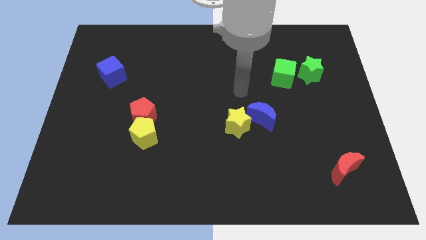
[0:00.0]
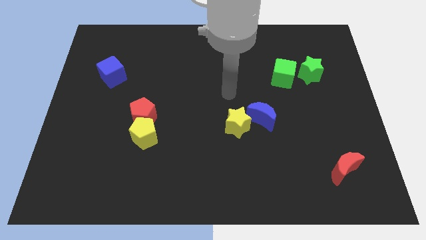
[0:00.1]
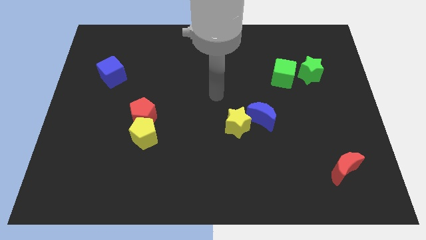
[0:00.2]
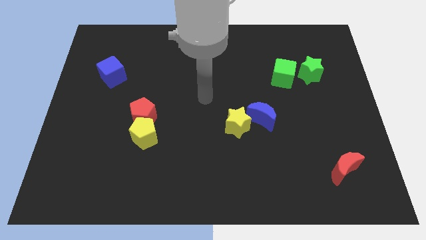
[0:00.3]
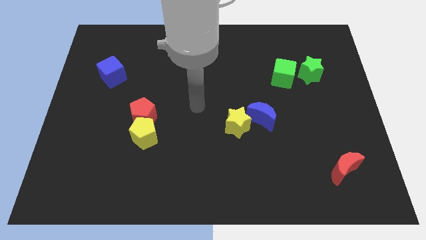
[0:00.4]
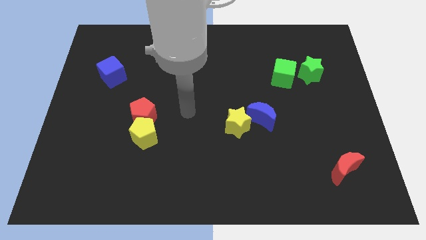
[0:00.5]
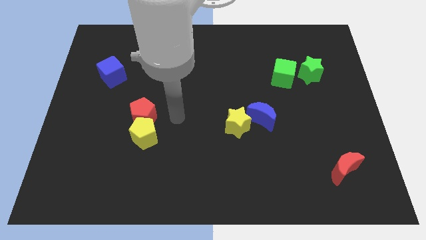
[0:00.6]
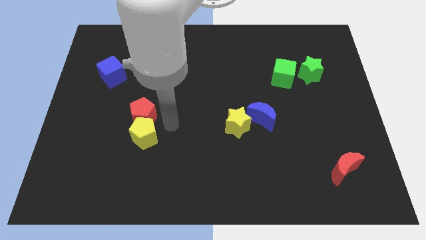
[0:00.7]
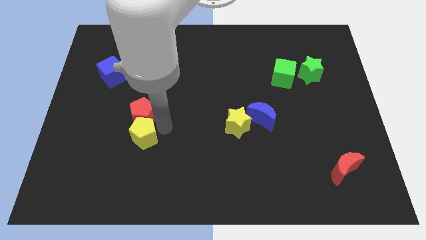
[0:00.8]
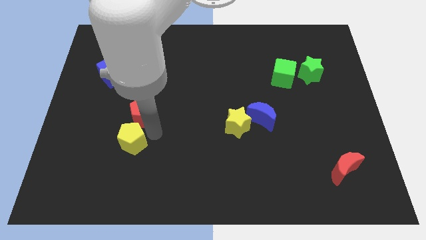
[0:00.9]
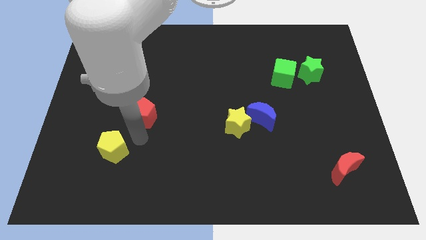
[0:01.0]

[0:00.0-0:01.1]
pull the red pentagon apart from the yellow pentagon

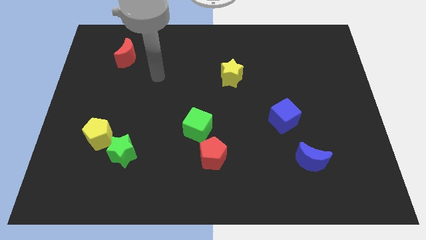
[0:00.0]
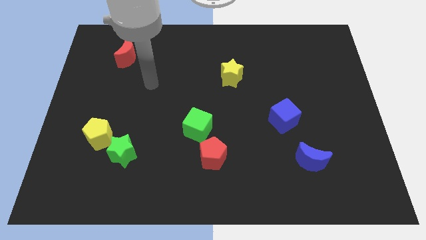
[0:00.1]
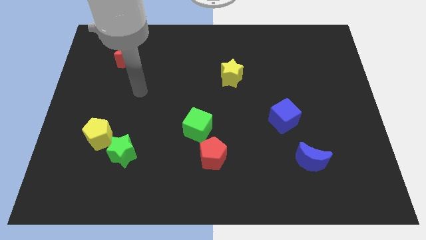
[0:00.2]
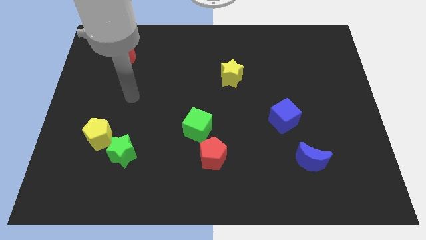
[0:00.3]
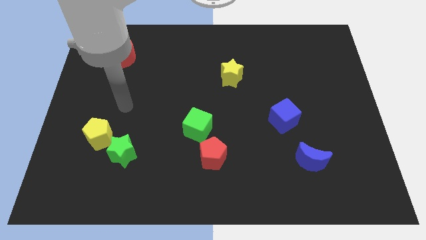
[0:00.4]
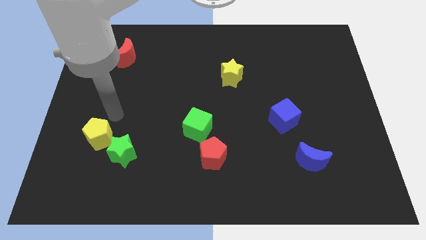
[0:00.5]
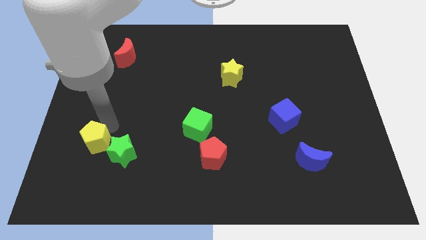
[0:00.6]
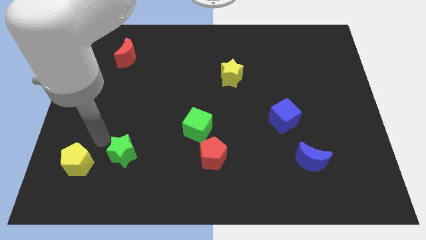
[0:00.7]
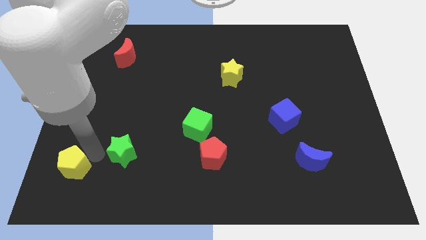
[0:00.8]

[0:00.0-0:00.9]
separate the green star from the yellow pentagon

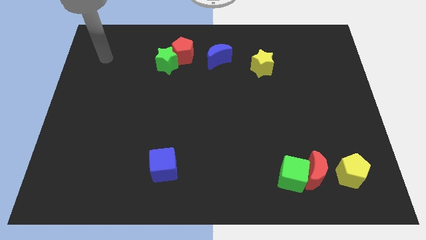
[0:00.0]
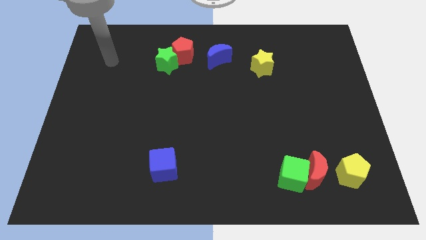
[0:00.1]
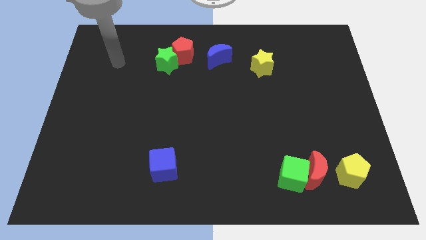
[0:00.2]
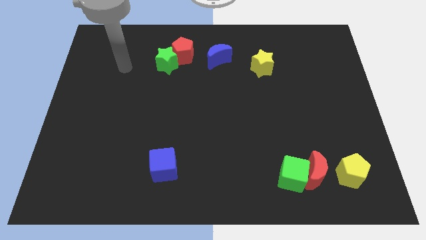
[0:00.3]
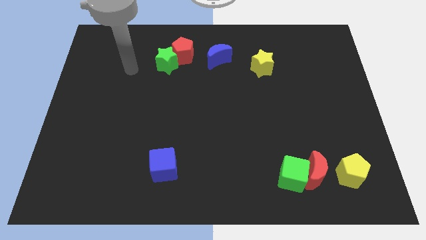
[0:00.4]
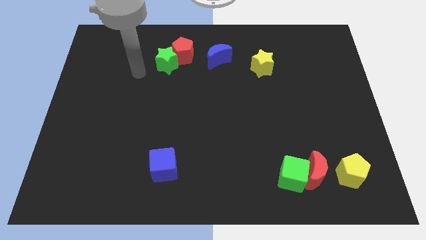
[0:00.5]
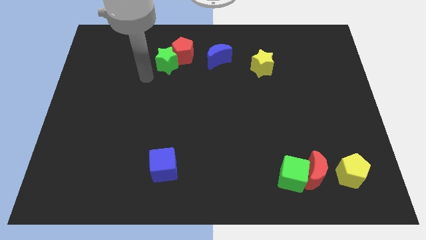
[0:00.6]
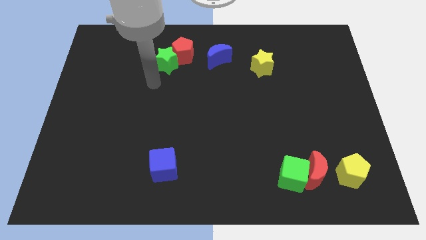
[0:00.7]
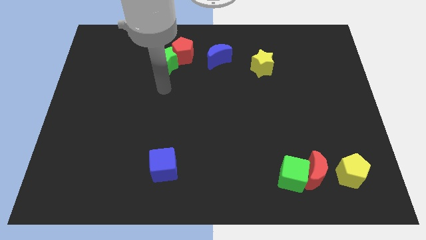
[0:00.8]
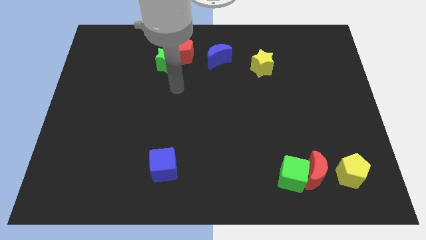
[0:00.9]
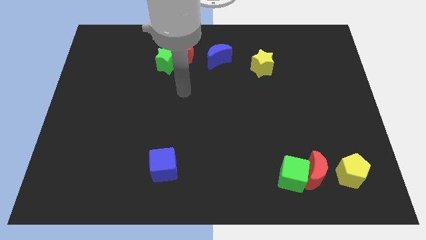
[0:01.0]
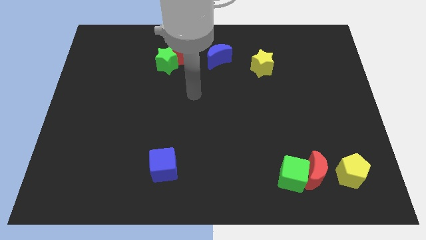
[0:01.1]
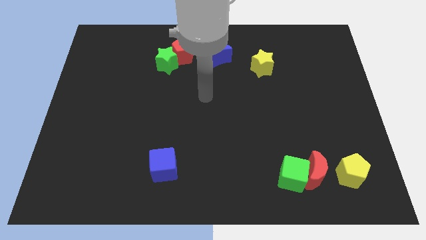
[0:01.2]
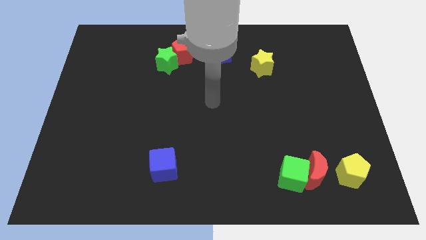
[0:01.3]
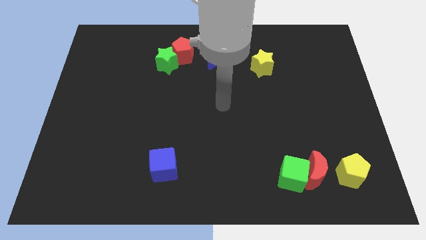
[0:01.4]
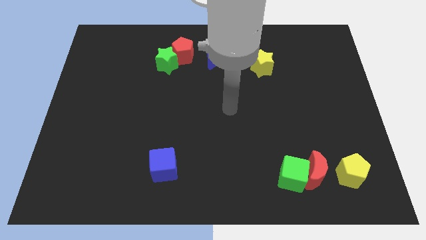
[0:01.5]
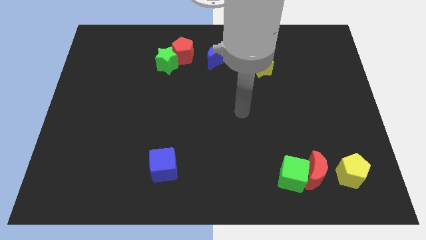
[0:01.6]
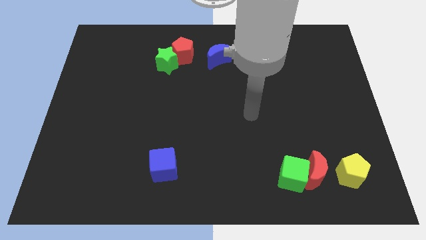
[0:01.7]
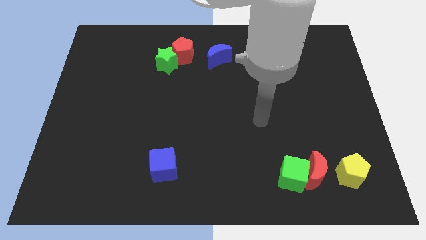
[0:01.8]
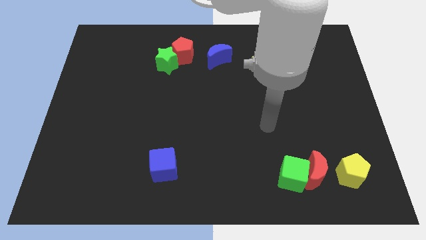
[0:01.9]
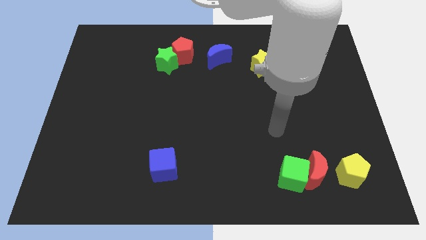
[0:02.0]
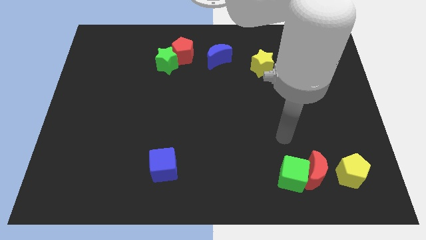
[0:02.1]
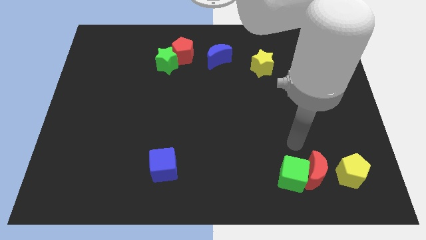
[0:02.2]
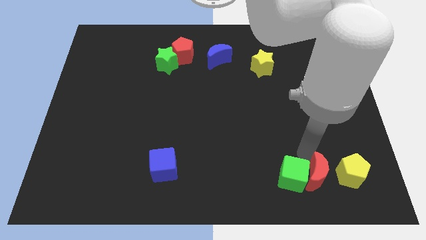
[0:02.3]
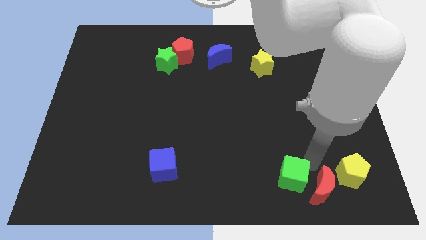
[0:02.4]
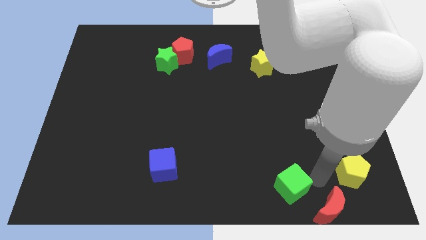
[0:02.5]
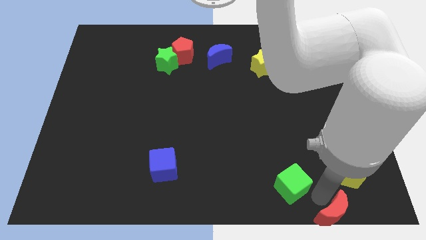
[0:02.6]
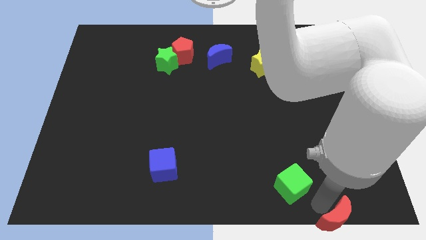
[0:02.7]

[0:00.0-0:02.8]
pull the green cube apart from the red moon

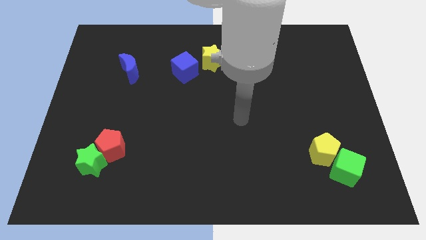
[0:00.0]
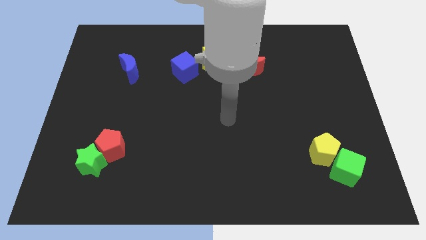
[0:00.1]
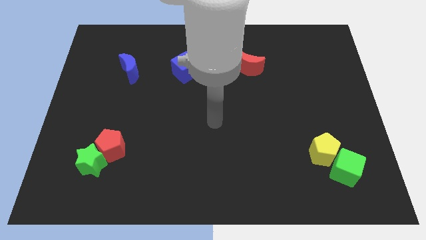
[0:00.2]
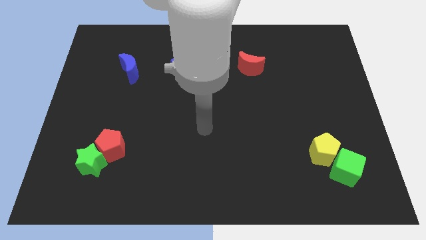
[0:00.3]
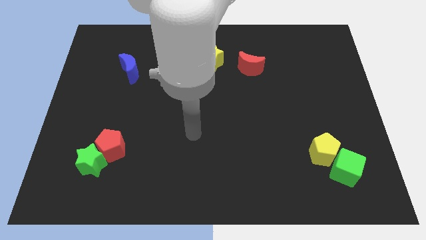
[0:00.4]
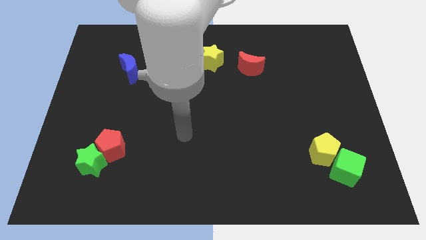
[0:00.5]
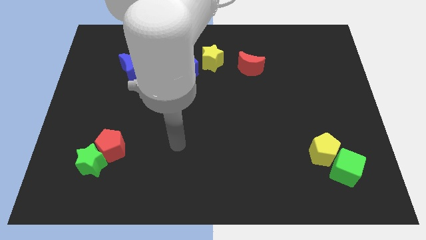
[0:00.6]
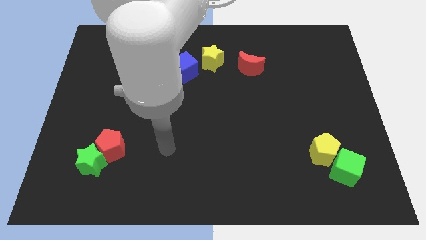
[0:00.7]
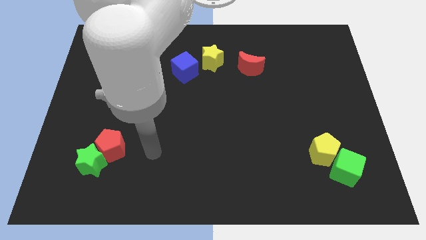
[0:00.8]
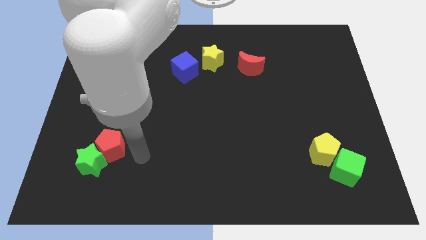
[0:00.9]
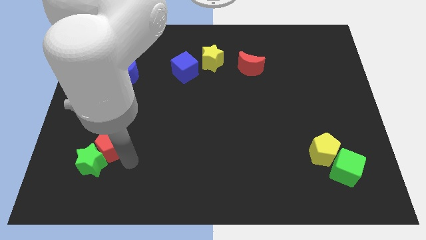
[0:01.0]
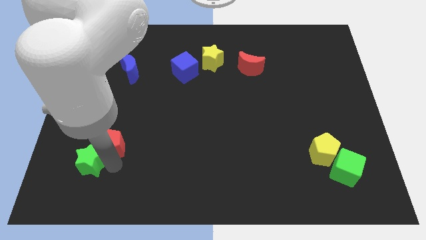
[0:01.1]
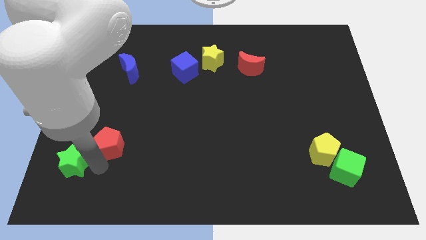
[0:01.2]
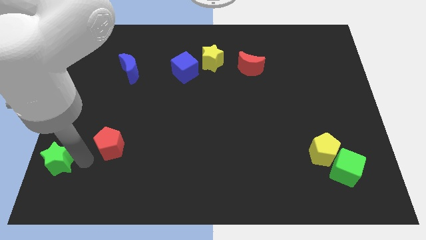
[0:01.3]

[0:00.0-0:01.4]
pull the red pentagon apart from the green star

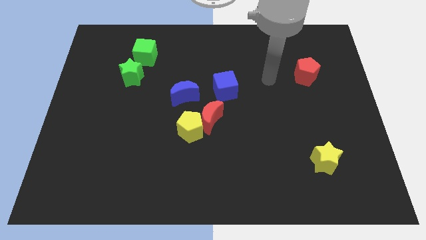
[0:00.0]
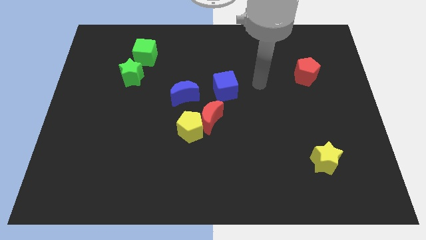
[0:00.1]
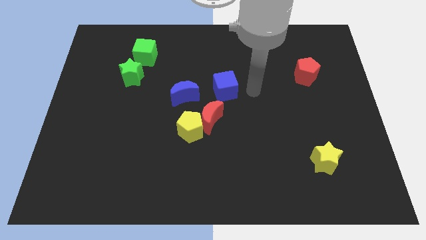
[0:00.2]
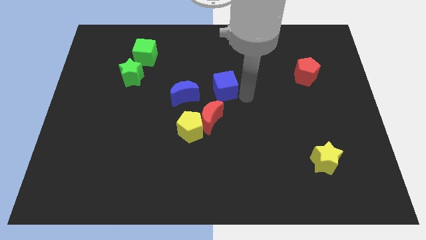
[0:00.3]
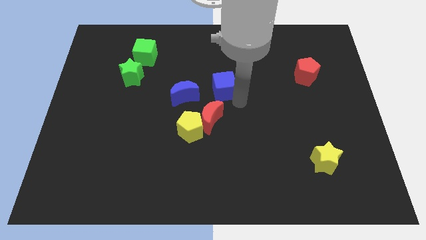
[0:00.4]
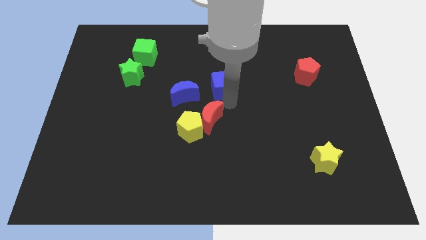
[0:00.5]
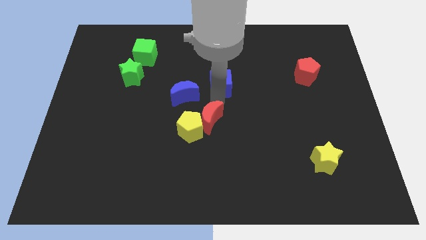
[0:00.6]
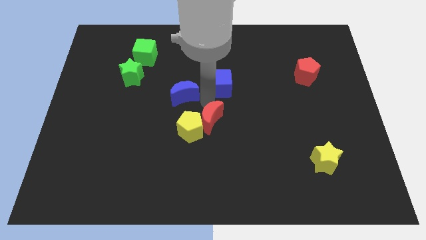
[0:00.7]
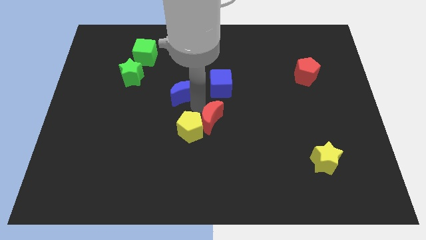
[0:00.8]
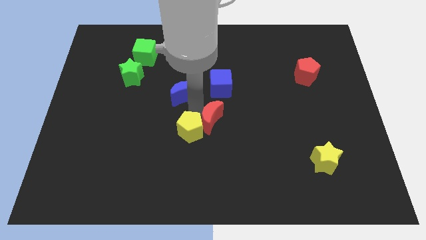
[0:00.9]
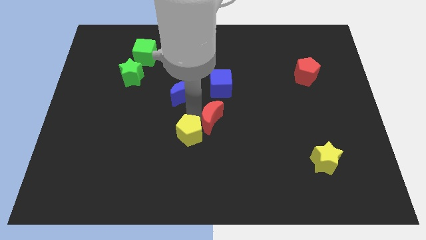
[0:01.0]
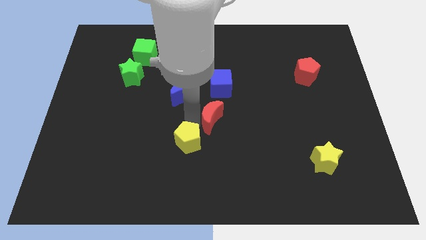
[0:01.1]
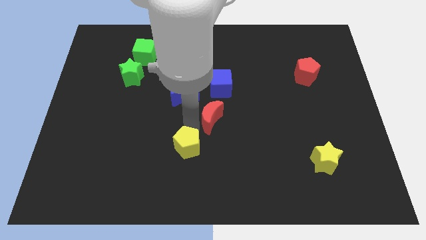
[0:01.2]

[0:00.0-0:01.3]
move the yellow pentagon away from the red moon and blue moon

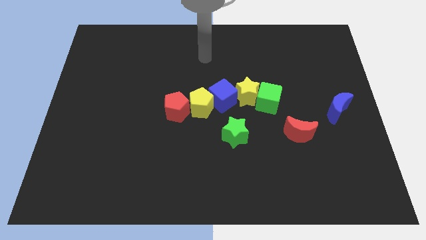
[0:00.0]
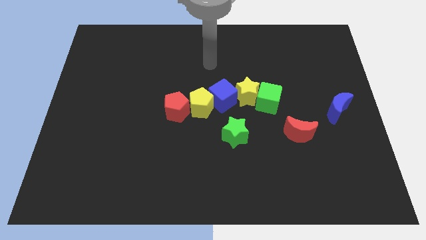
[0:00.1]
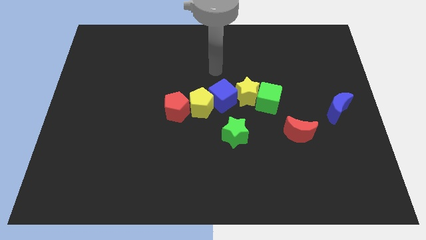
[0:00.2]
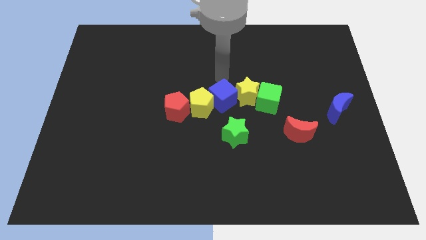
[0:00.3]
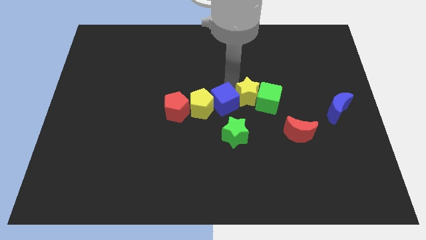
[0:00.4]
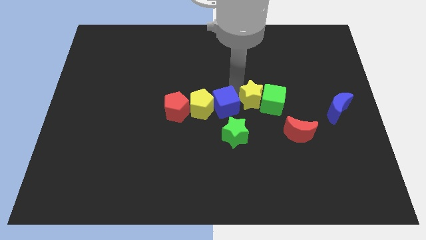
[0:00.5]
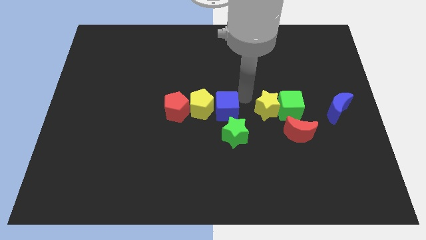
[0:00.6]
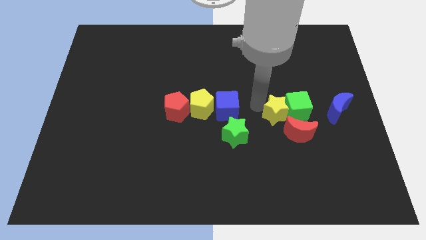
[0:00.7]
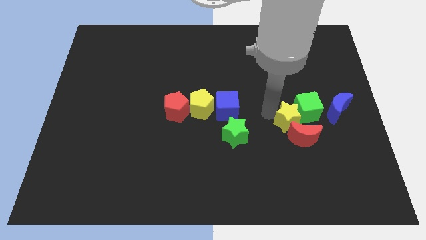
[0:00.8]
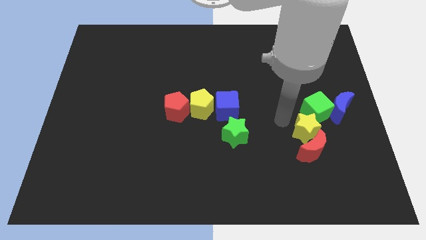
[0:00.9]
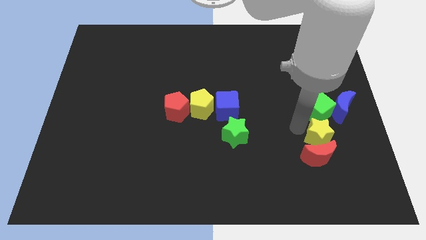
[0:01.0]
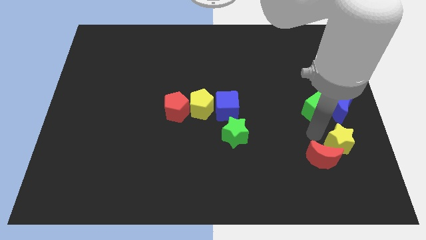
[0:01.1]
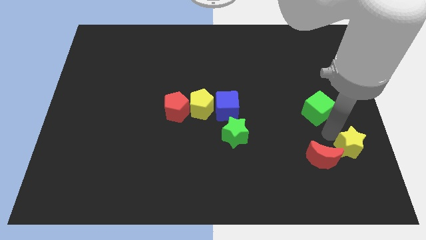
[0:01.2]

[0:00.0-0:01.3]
pull the green cube apart from the yellow star

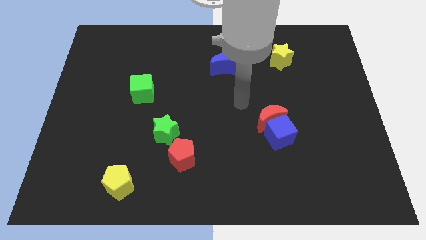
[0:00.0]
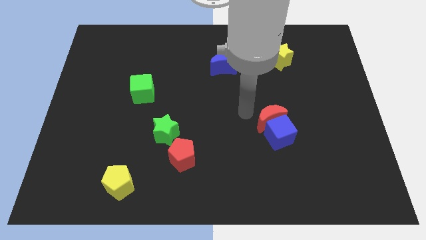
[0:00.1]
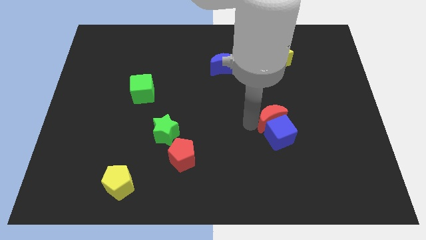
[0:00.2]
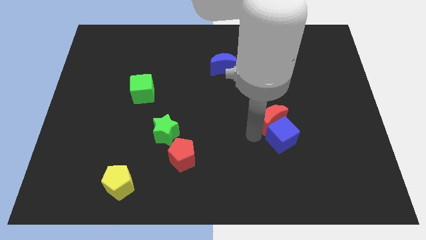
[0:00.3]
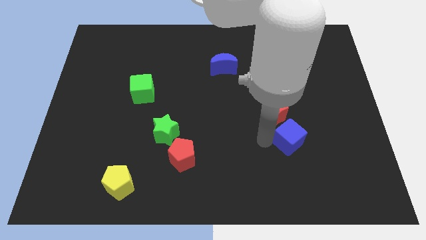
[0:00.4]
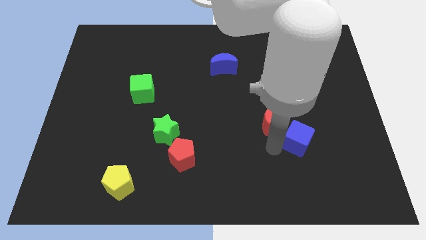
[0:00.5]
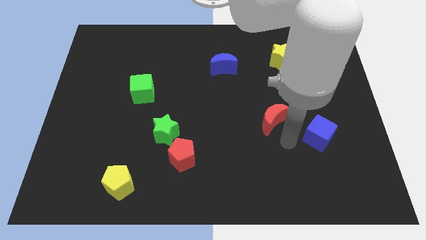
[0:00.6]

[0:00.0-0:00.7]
move the red moon away from the blue cube
